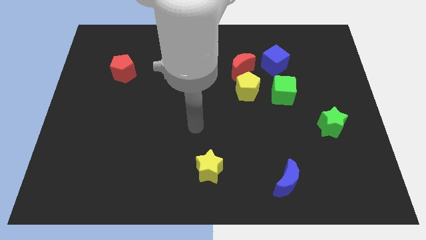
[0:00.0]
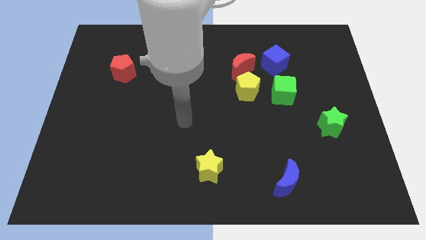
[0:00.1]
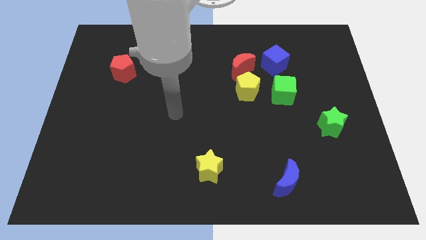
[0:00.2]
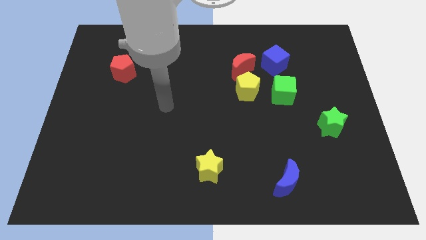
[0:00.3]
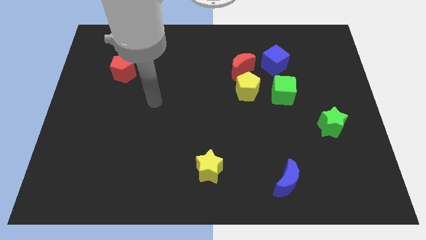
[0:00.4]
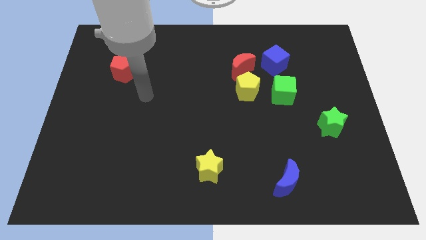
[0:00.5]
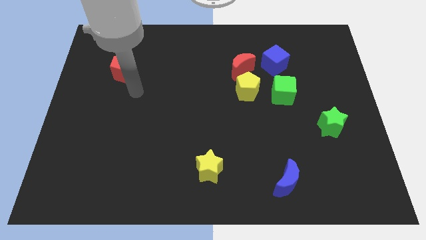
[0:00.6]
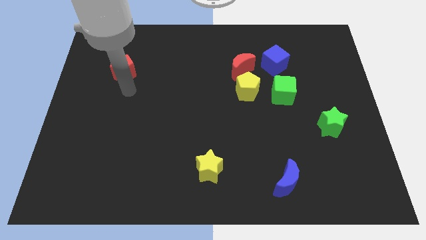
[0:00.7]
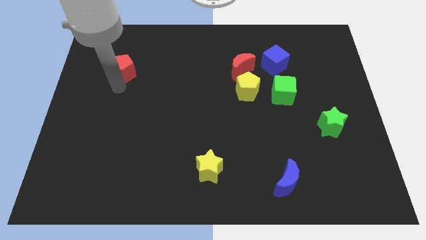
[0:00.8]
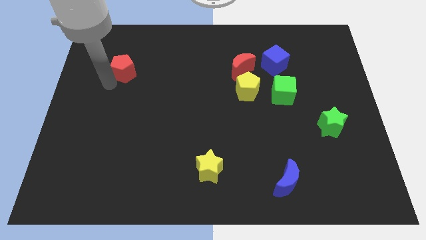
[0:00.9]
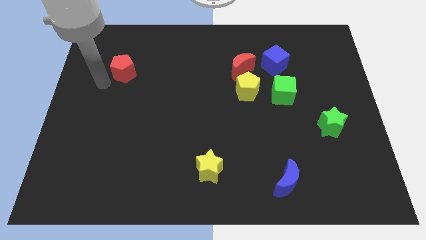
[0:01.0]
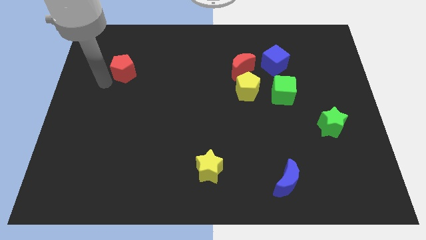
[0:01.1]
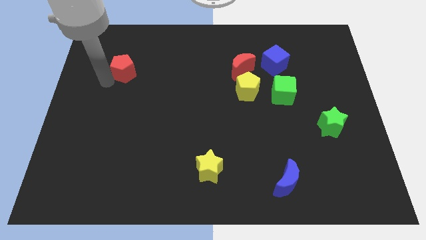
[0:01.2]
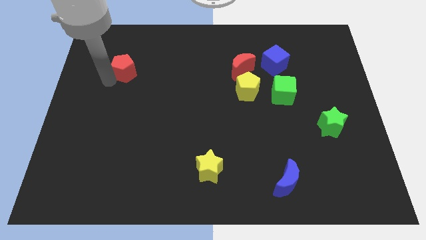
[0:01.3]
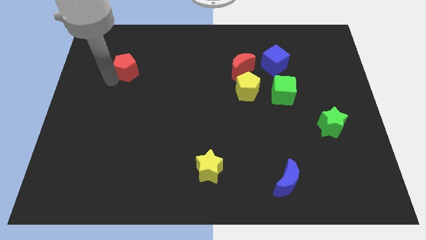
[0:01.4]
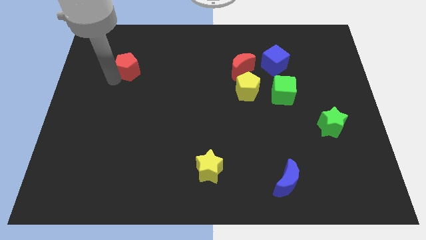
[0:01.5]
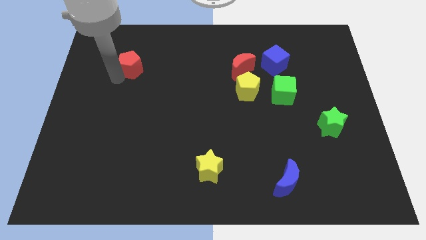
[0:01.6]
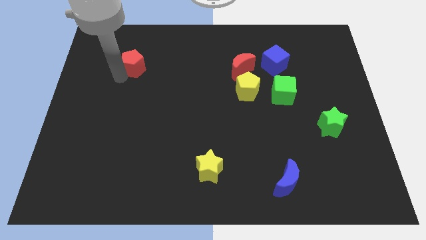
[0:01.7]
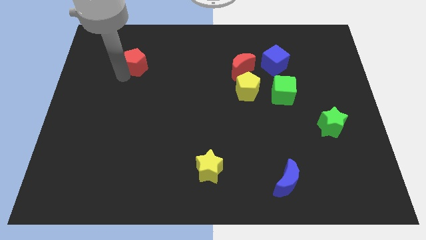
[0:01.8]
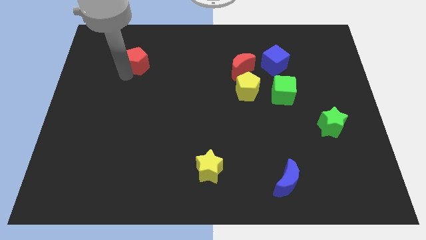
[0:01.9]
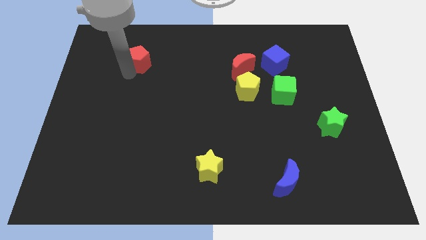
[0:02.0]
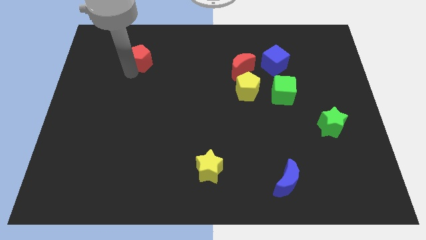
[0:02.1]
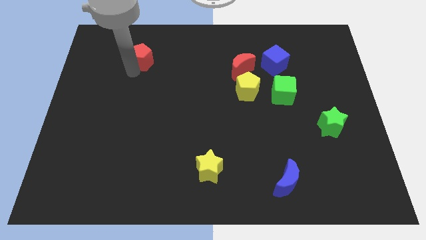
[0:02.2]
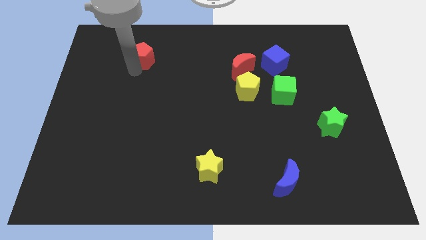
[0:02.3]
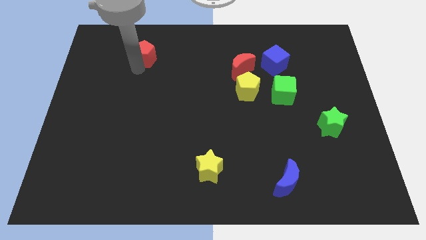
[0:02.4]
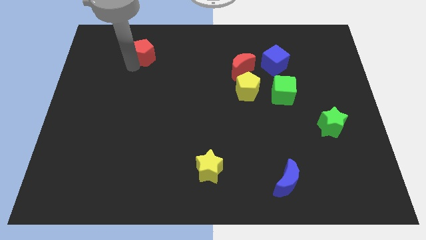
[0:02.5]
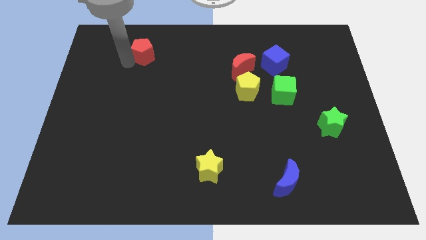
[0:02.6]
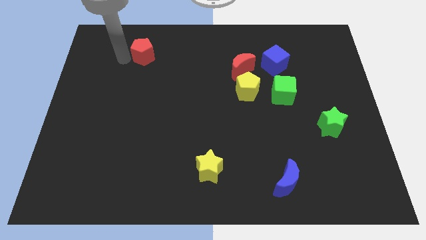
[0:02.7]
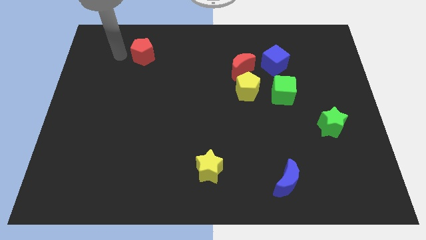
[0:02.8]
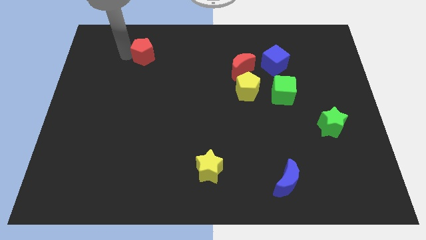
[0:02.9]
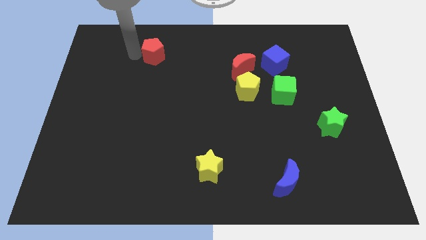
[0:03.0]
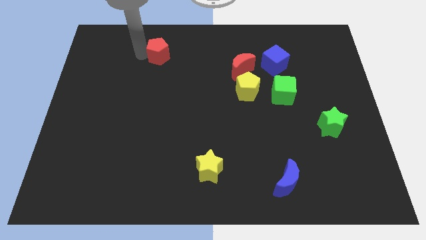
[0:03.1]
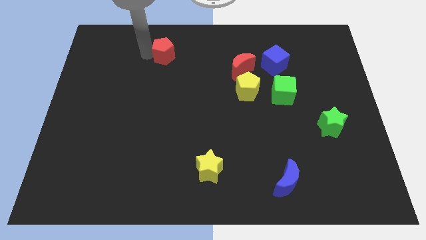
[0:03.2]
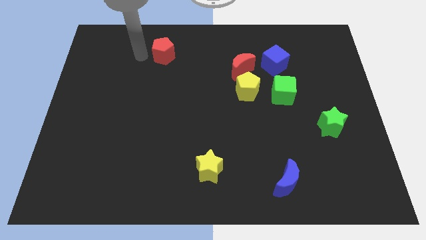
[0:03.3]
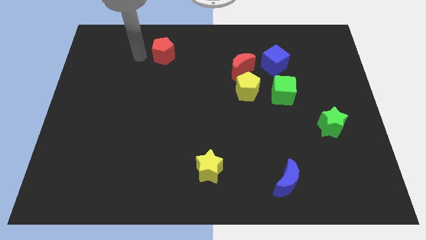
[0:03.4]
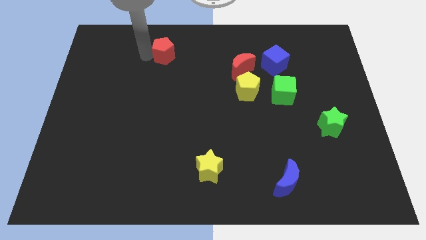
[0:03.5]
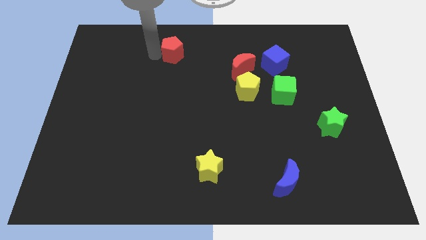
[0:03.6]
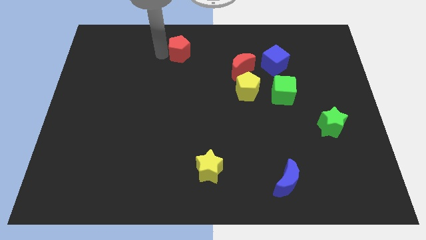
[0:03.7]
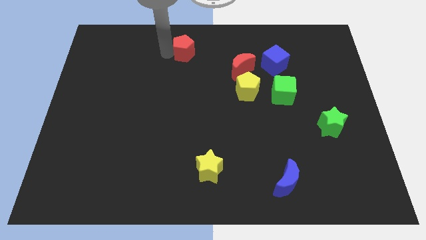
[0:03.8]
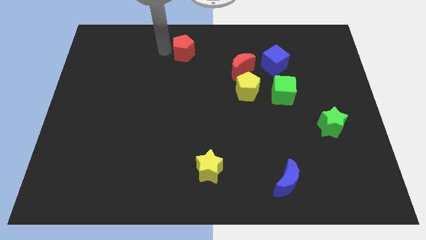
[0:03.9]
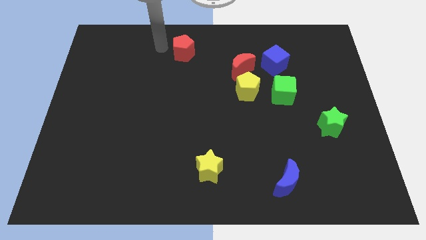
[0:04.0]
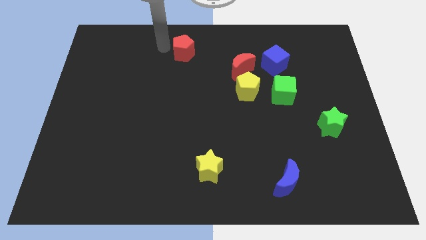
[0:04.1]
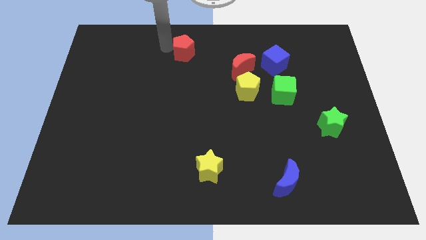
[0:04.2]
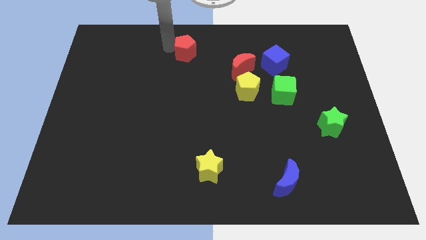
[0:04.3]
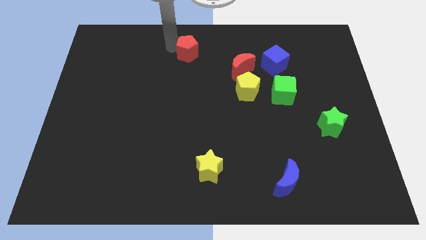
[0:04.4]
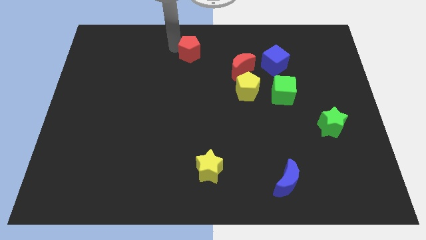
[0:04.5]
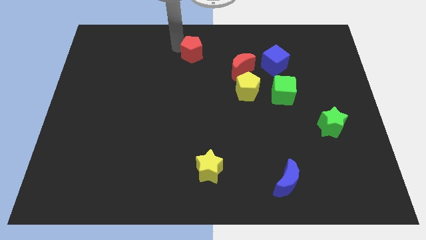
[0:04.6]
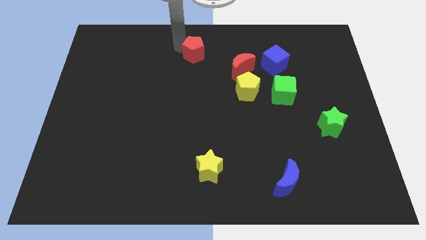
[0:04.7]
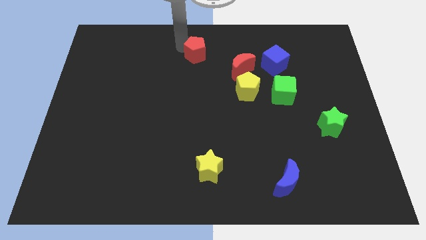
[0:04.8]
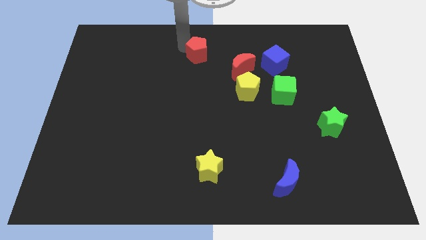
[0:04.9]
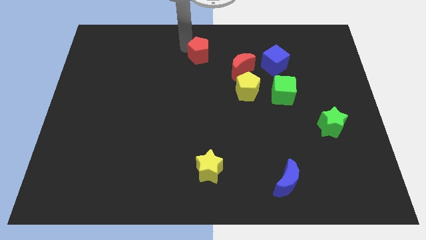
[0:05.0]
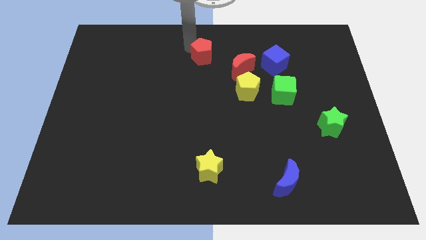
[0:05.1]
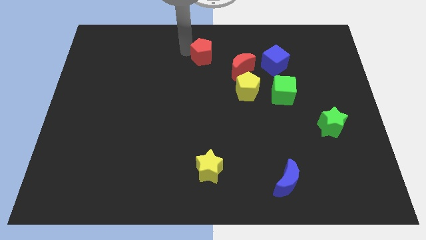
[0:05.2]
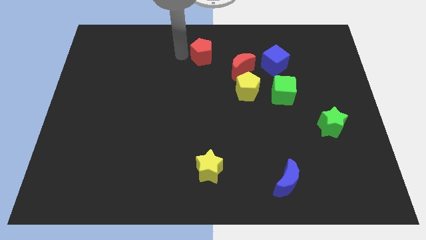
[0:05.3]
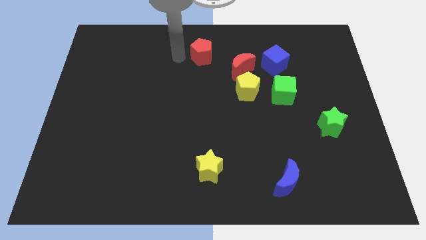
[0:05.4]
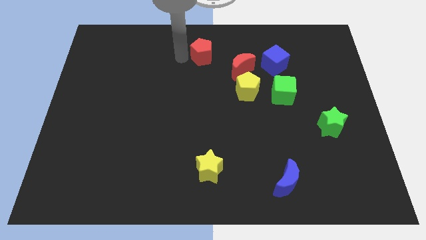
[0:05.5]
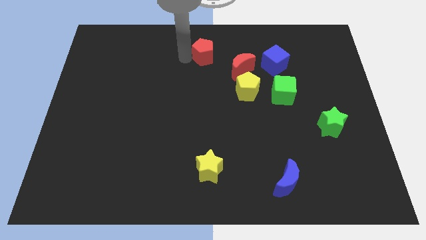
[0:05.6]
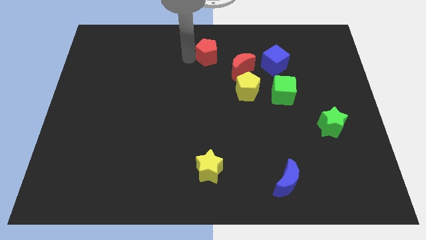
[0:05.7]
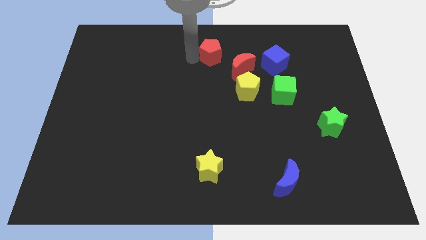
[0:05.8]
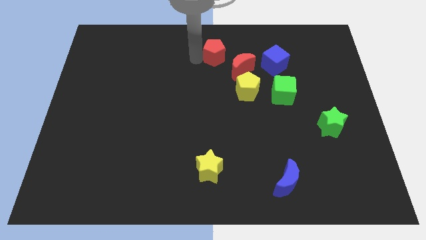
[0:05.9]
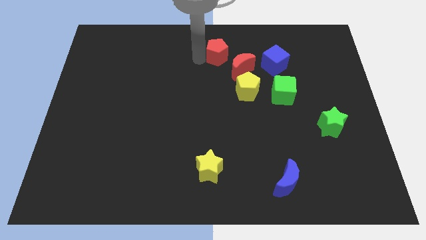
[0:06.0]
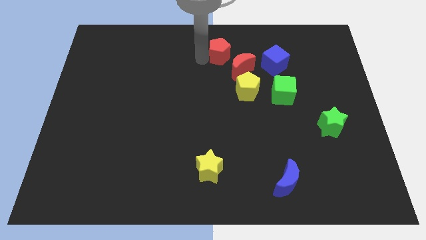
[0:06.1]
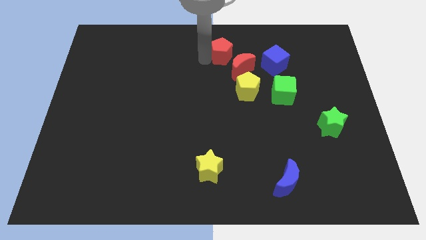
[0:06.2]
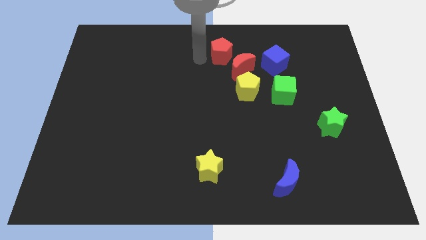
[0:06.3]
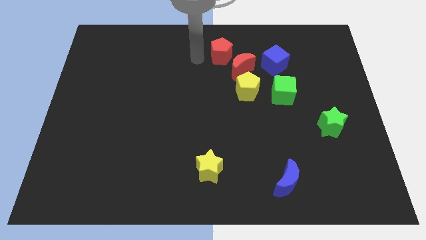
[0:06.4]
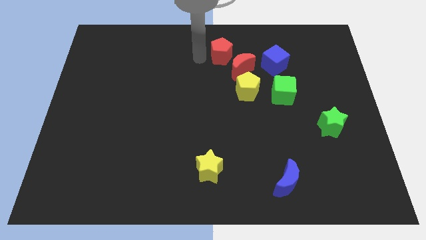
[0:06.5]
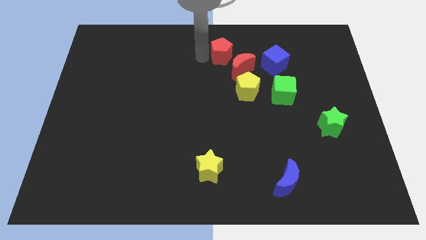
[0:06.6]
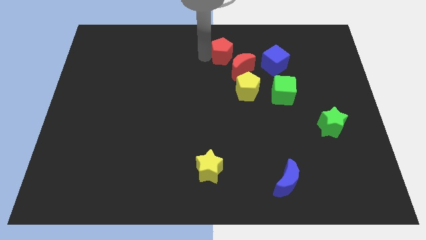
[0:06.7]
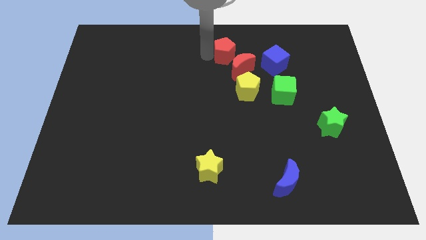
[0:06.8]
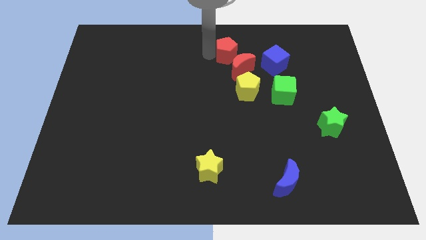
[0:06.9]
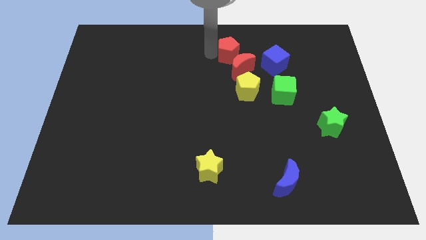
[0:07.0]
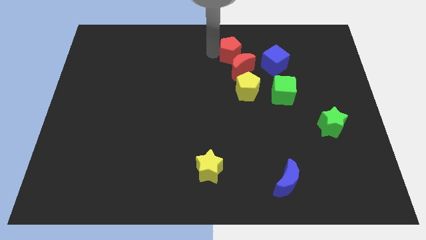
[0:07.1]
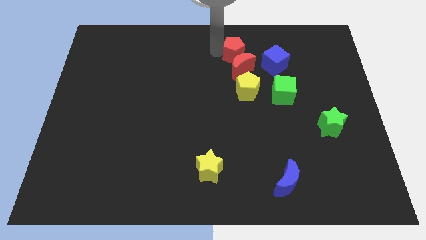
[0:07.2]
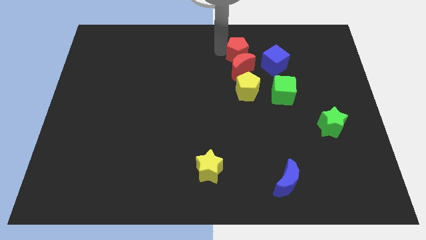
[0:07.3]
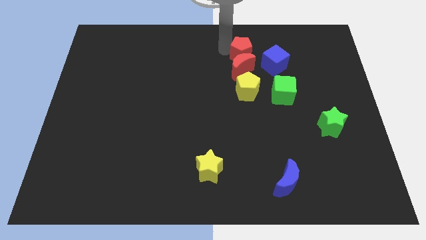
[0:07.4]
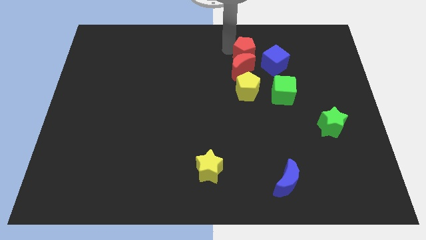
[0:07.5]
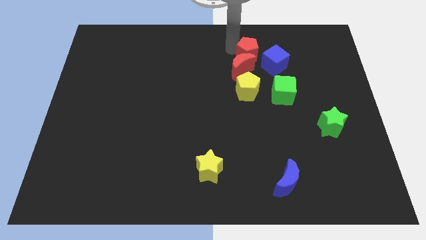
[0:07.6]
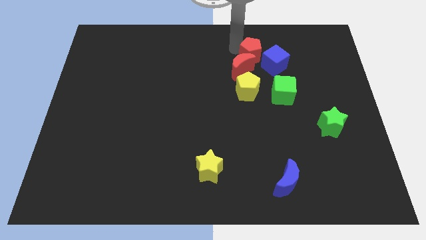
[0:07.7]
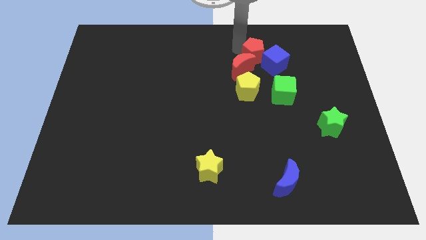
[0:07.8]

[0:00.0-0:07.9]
push the red pentagon next to the blue cube
